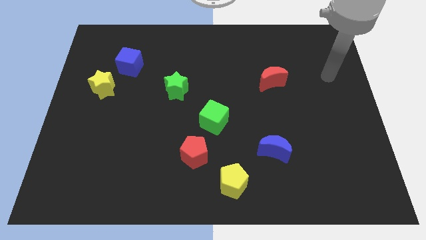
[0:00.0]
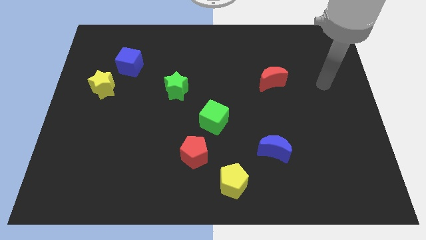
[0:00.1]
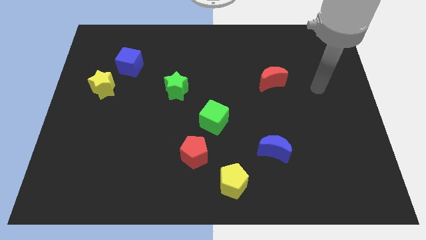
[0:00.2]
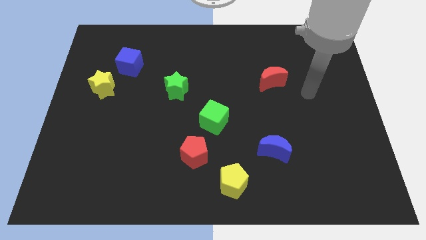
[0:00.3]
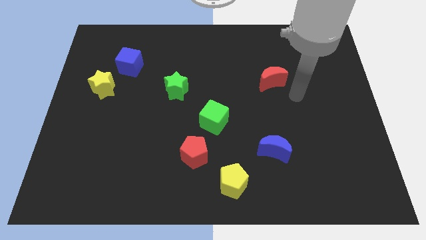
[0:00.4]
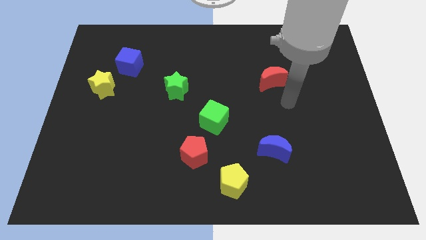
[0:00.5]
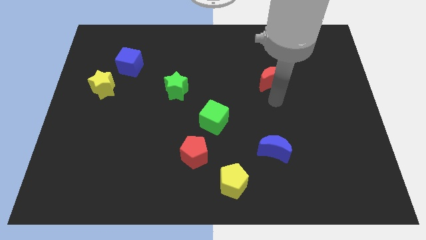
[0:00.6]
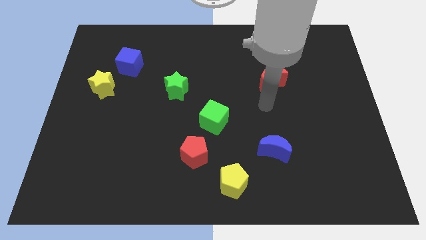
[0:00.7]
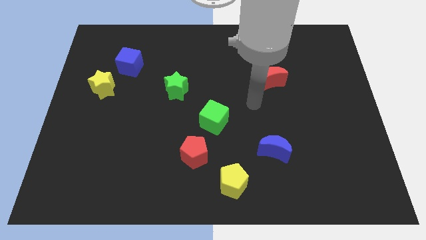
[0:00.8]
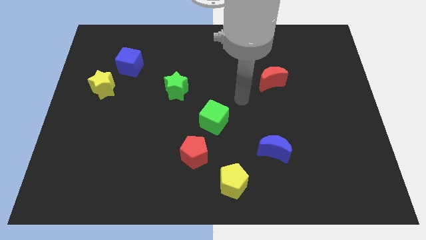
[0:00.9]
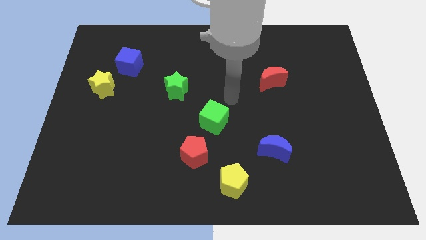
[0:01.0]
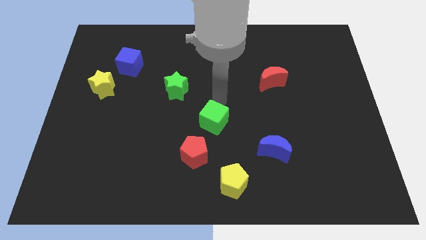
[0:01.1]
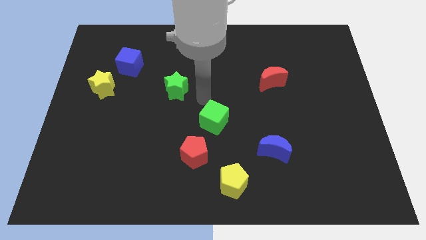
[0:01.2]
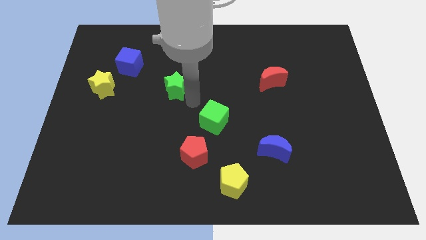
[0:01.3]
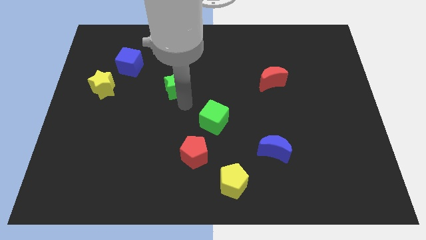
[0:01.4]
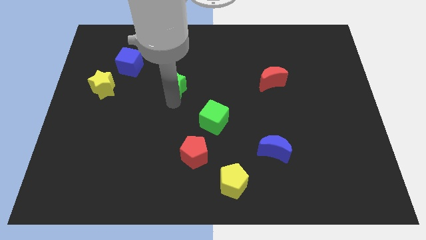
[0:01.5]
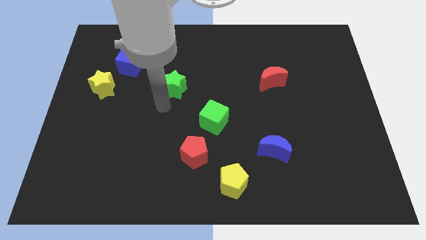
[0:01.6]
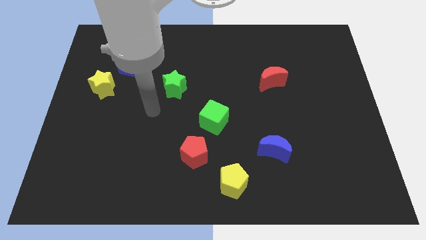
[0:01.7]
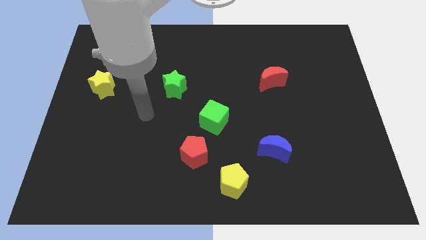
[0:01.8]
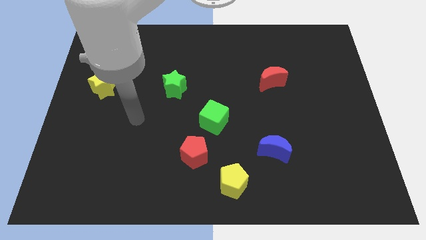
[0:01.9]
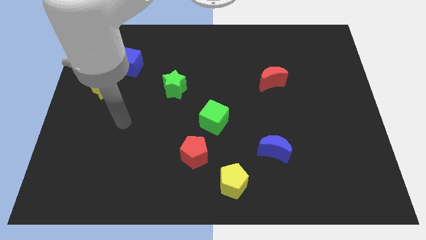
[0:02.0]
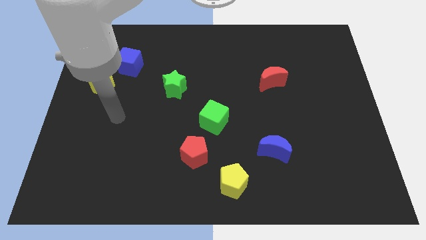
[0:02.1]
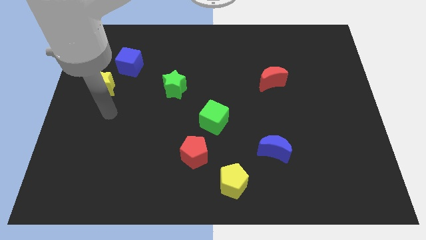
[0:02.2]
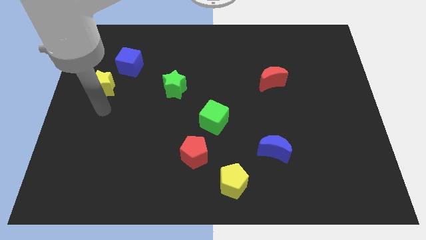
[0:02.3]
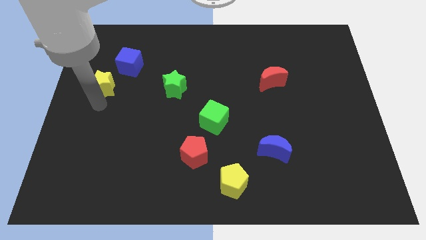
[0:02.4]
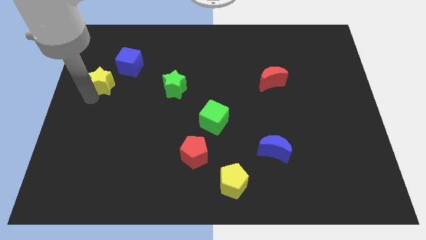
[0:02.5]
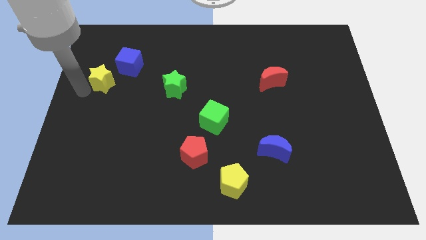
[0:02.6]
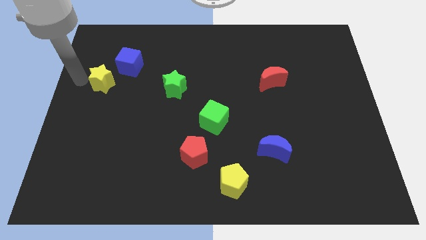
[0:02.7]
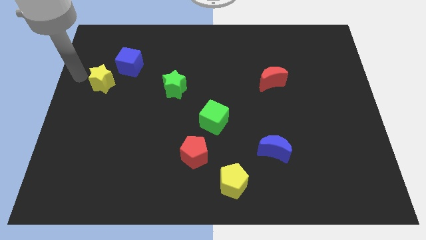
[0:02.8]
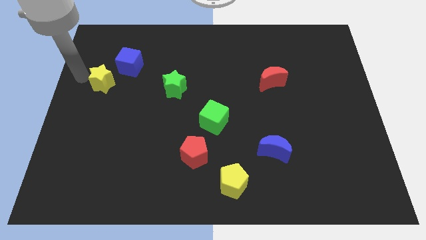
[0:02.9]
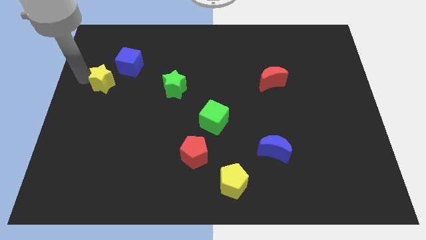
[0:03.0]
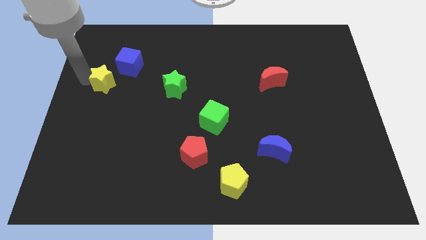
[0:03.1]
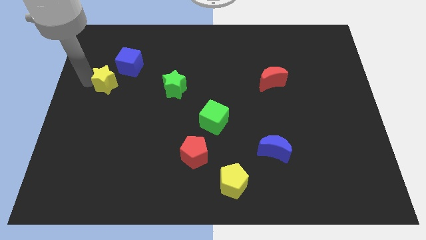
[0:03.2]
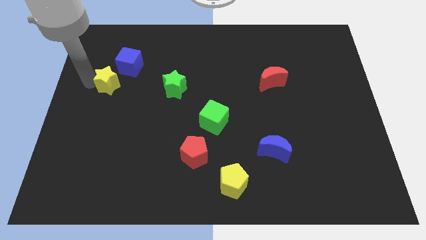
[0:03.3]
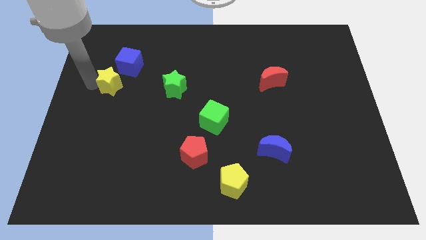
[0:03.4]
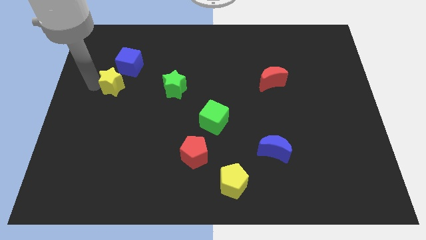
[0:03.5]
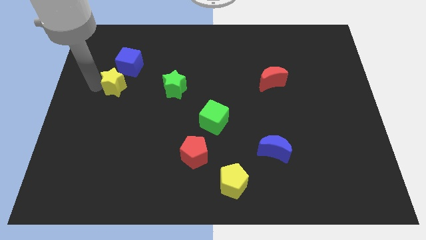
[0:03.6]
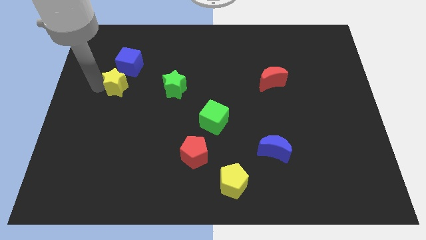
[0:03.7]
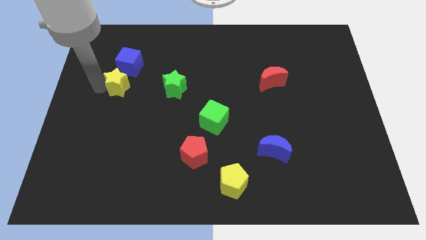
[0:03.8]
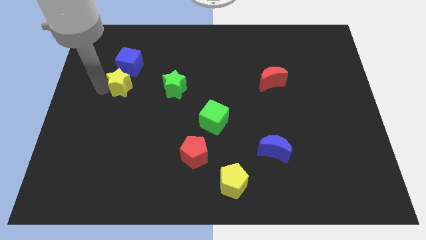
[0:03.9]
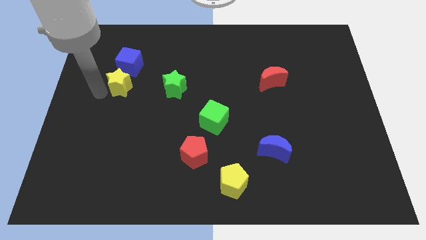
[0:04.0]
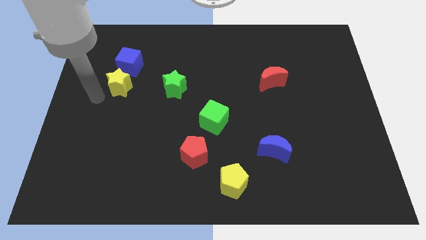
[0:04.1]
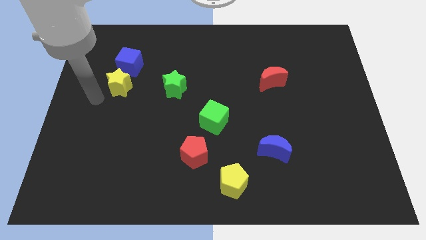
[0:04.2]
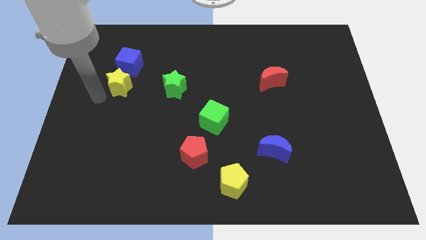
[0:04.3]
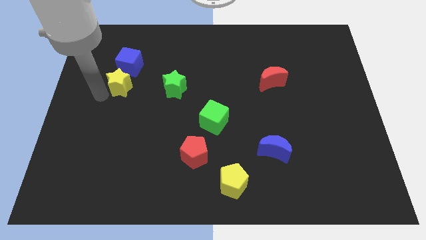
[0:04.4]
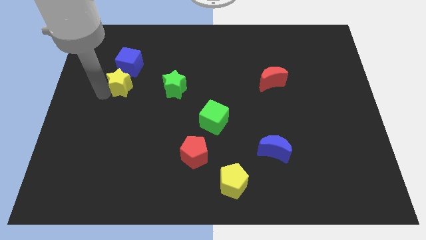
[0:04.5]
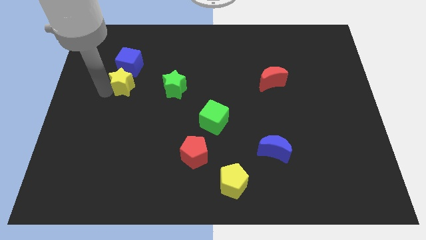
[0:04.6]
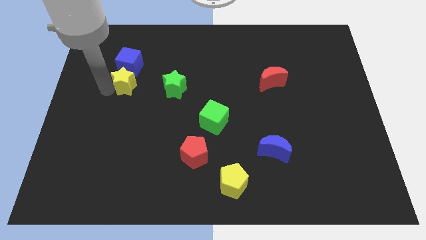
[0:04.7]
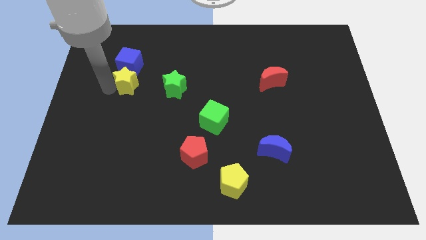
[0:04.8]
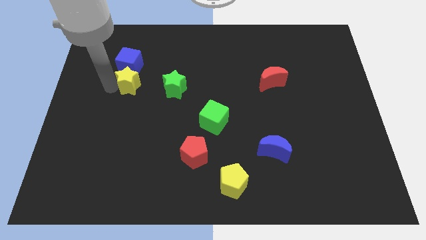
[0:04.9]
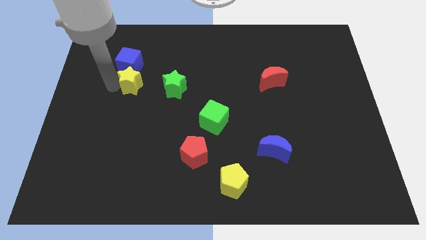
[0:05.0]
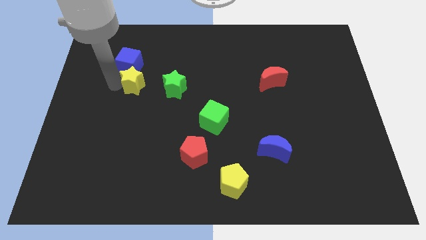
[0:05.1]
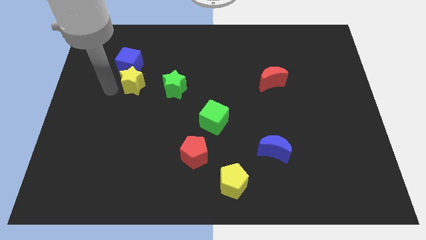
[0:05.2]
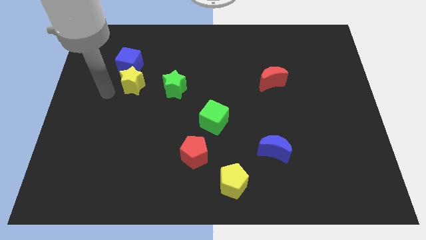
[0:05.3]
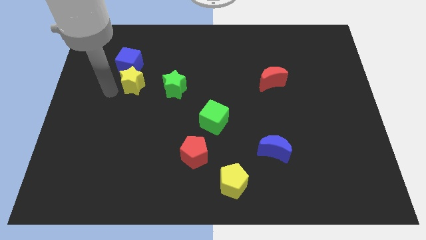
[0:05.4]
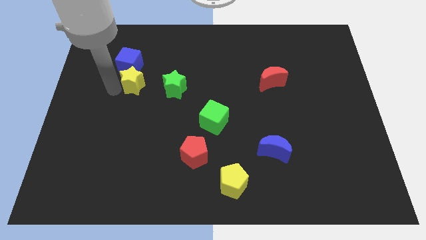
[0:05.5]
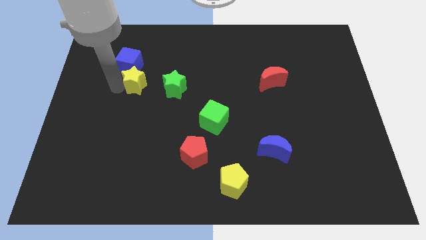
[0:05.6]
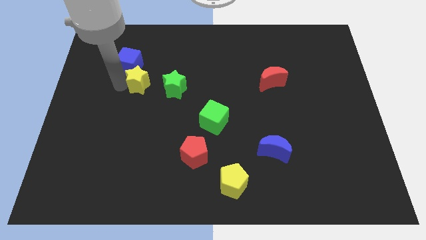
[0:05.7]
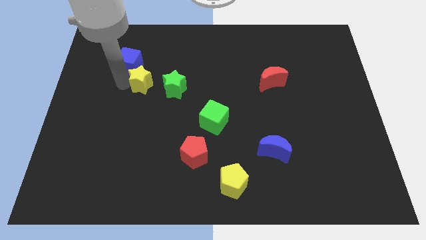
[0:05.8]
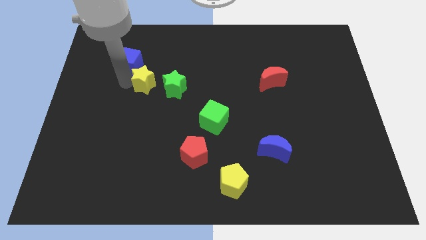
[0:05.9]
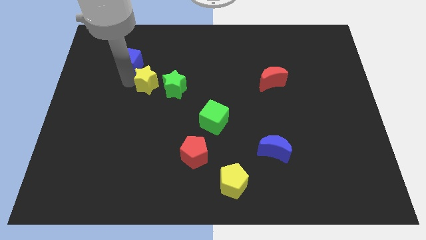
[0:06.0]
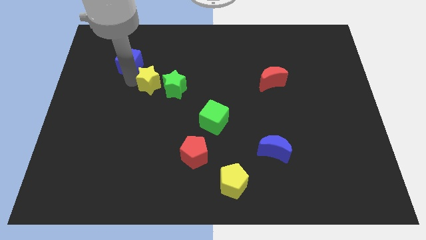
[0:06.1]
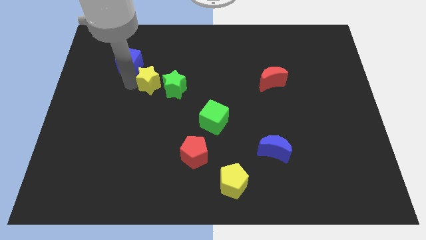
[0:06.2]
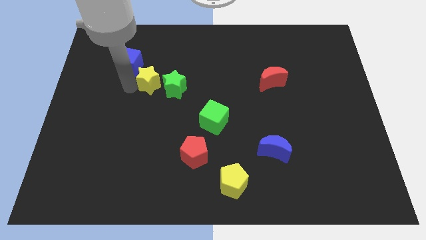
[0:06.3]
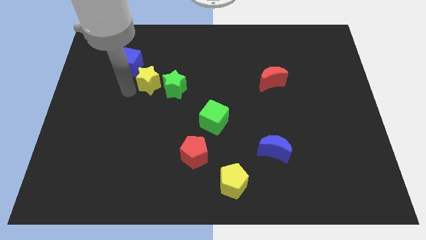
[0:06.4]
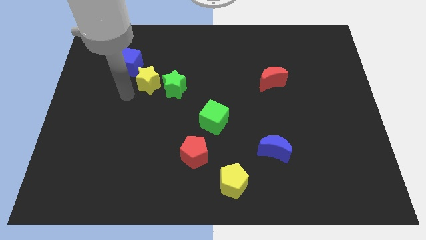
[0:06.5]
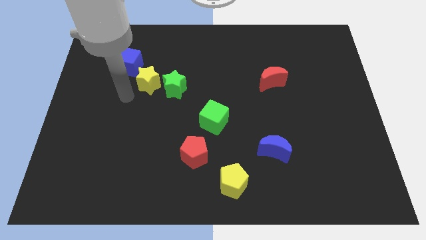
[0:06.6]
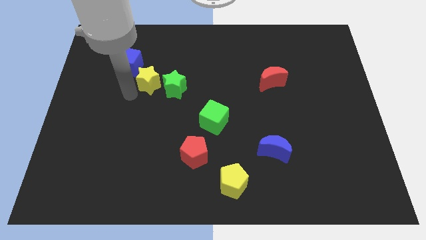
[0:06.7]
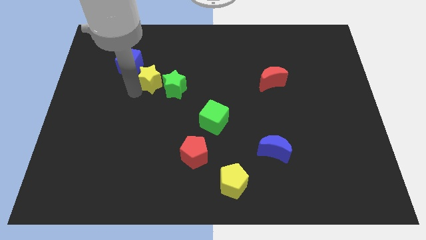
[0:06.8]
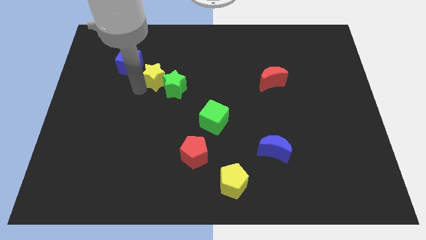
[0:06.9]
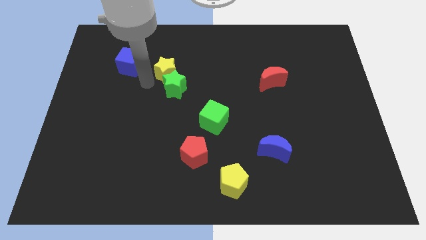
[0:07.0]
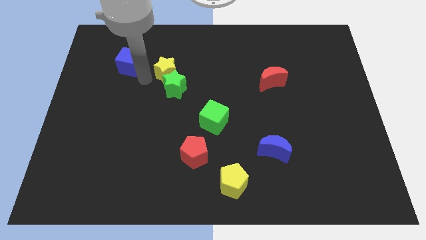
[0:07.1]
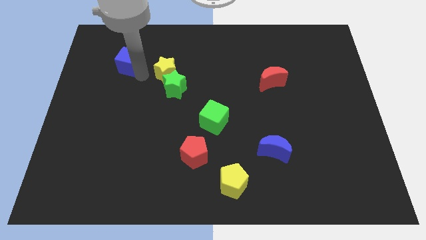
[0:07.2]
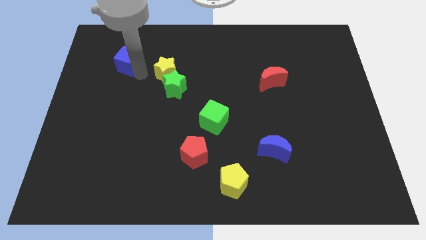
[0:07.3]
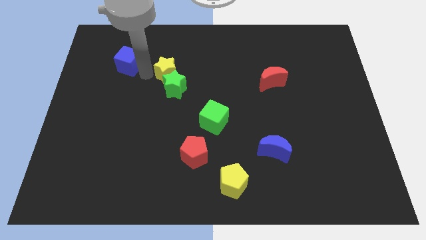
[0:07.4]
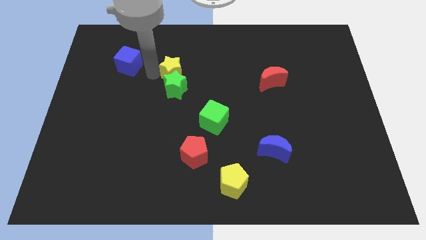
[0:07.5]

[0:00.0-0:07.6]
move the yellow star to the top right side of the green star
